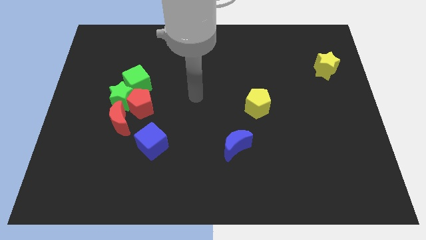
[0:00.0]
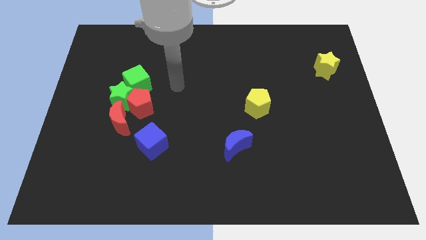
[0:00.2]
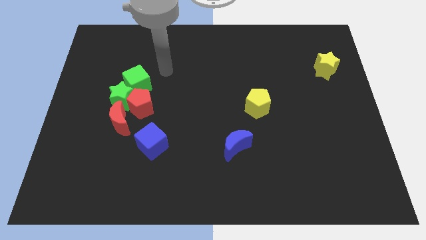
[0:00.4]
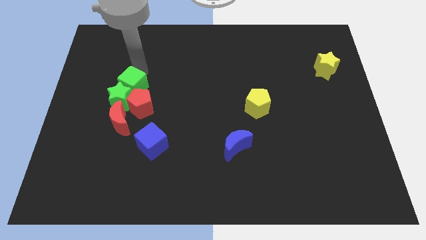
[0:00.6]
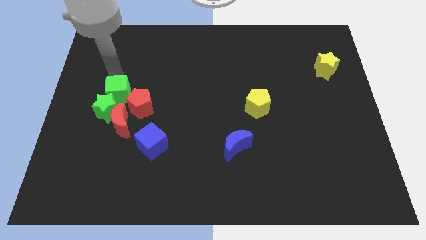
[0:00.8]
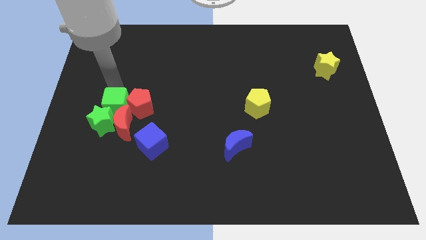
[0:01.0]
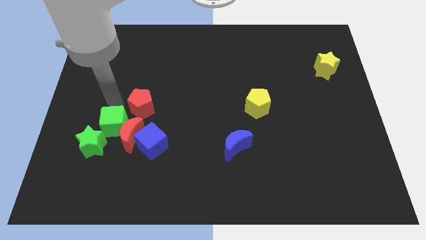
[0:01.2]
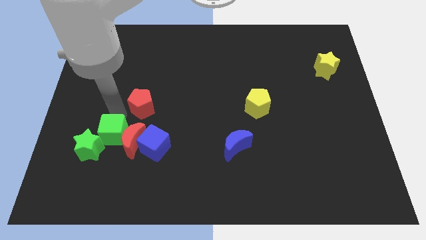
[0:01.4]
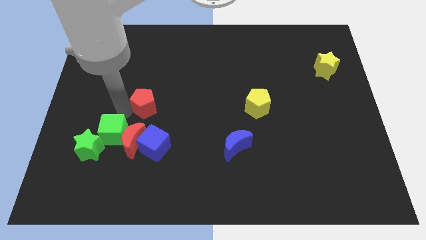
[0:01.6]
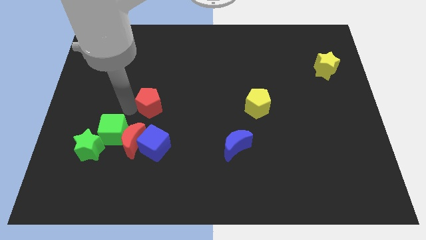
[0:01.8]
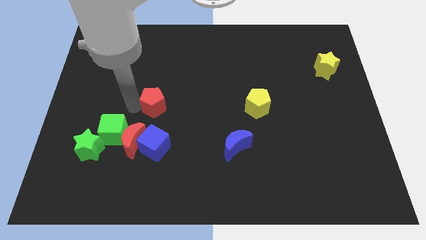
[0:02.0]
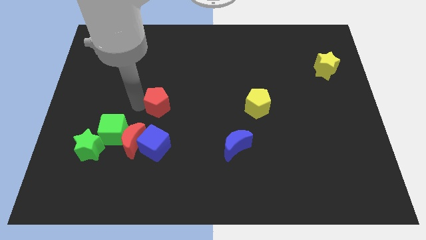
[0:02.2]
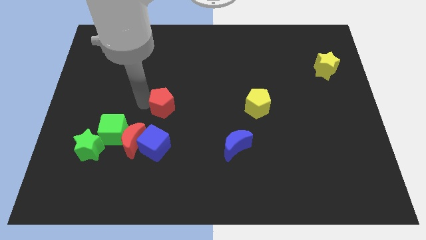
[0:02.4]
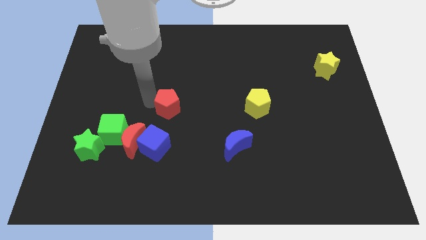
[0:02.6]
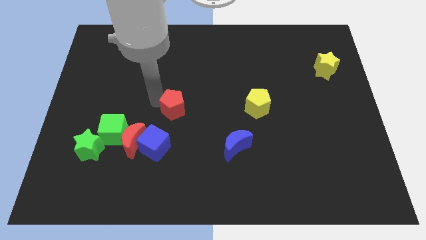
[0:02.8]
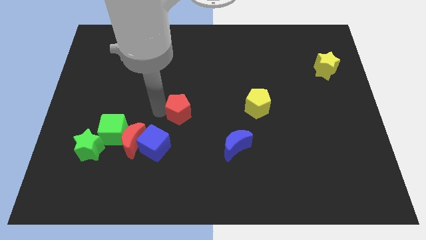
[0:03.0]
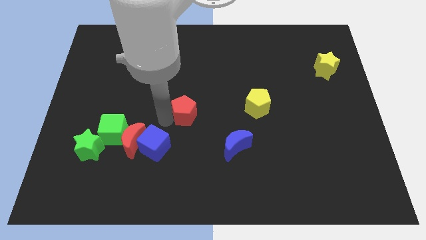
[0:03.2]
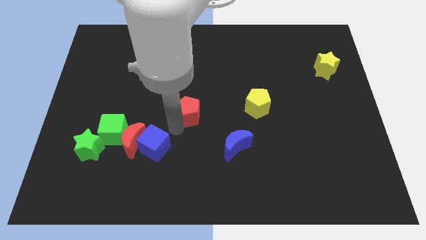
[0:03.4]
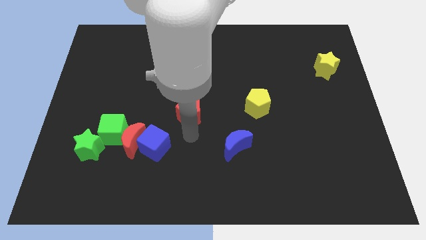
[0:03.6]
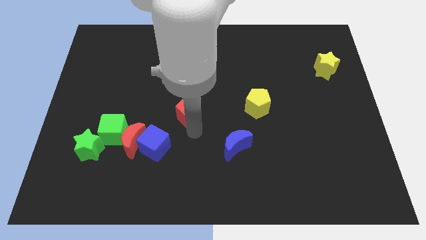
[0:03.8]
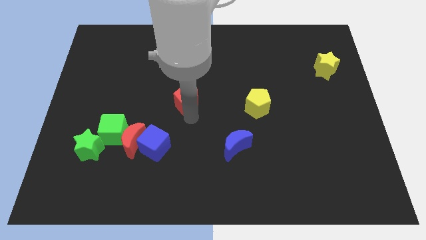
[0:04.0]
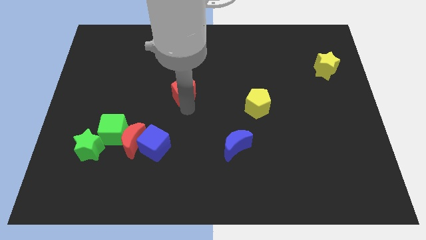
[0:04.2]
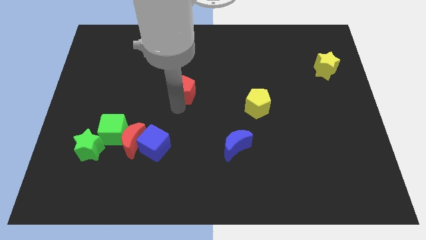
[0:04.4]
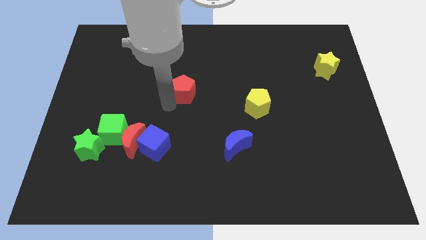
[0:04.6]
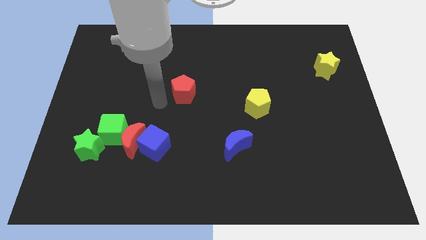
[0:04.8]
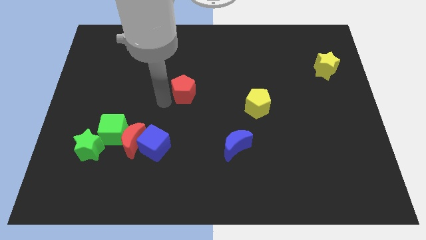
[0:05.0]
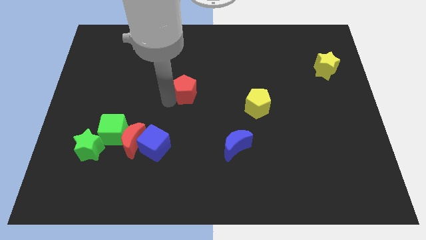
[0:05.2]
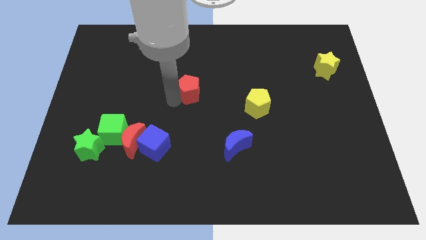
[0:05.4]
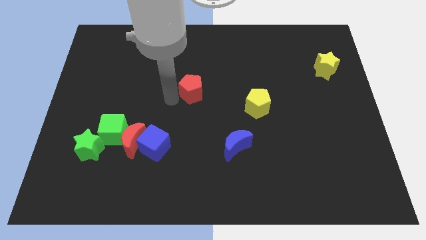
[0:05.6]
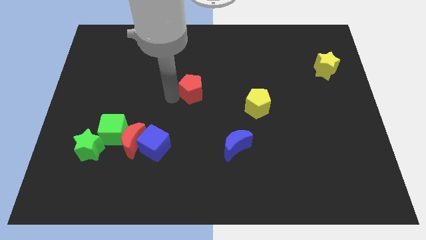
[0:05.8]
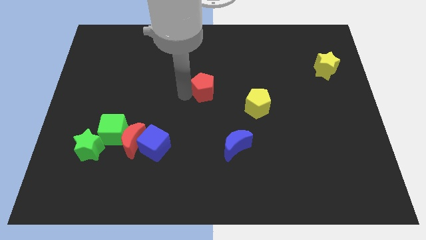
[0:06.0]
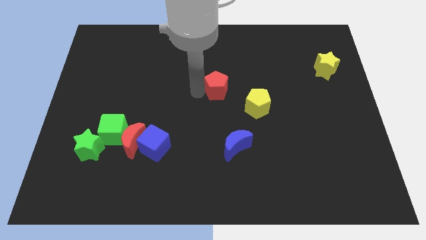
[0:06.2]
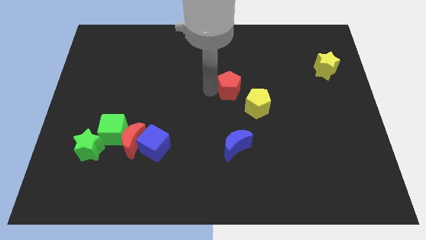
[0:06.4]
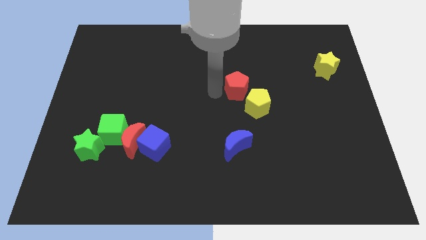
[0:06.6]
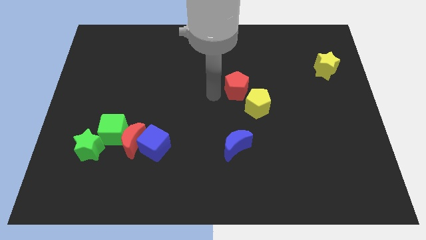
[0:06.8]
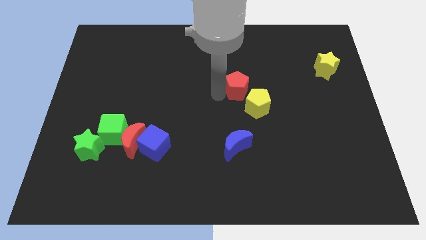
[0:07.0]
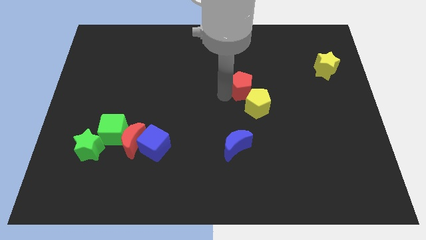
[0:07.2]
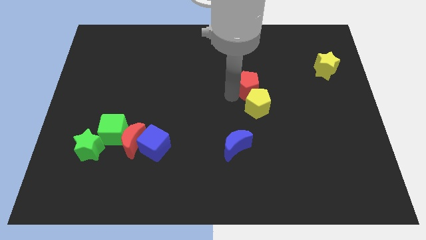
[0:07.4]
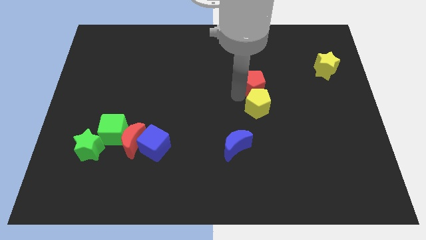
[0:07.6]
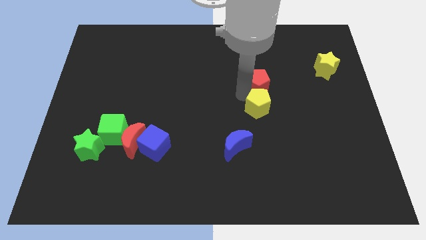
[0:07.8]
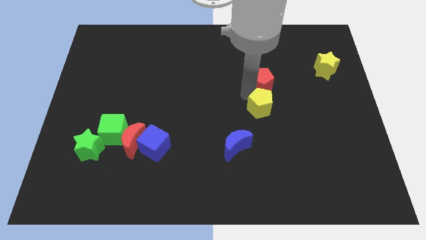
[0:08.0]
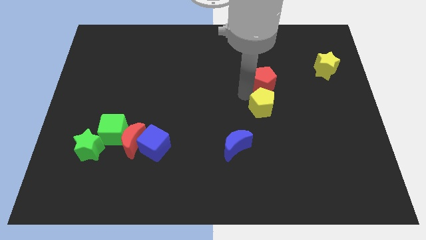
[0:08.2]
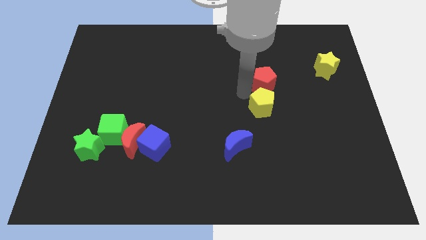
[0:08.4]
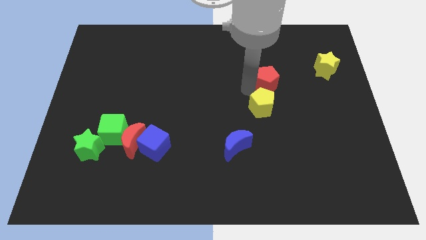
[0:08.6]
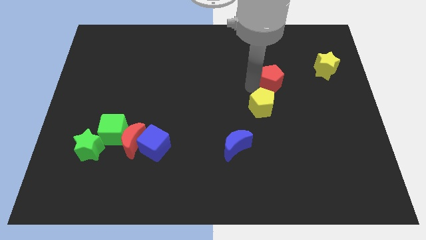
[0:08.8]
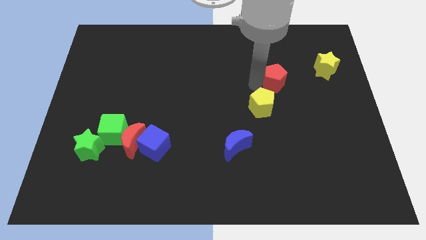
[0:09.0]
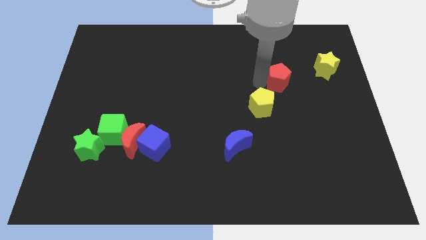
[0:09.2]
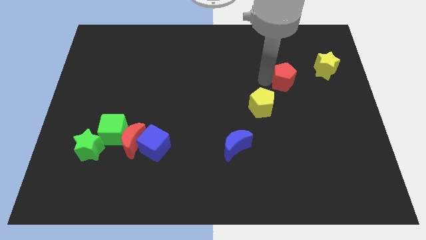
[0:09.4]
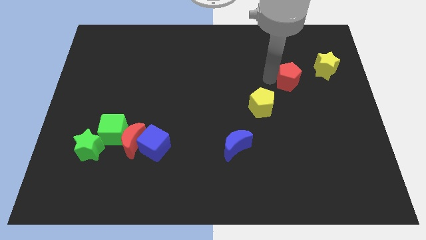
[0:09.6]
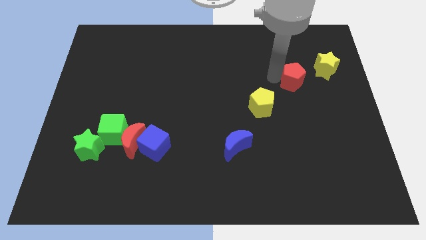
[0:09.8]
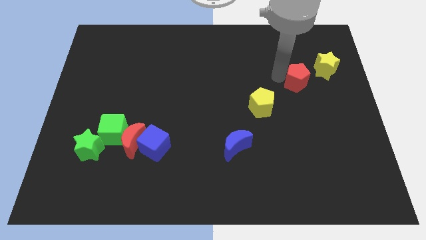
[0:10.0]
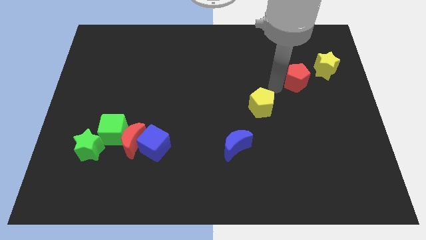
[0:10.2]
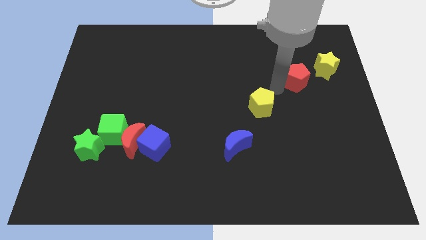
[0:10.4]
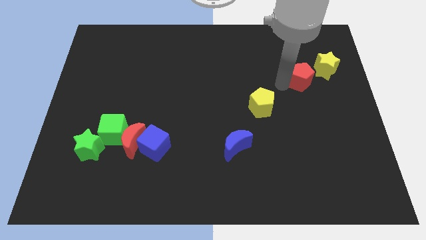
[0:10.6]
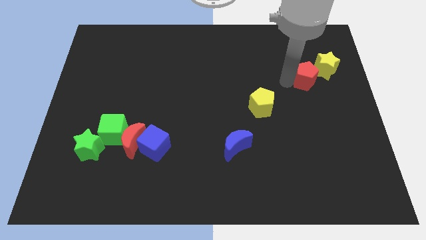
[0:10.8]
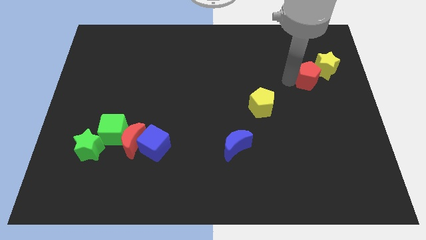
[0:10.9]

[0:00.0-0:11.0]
push the red pentagon to the yellow star

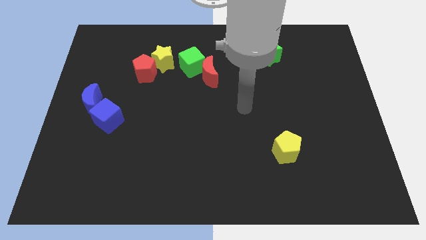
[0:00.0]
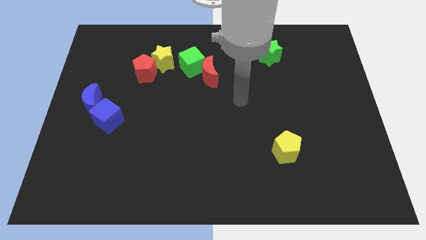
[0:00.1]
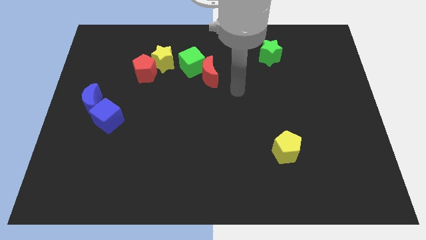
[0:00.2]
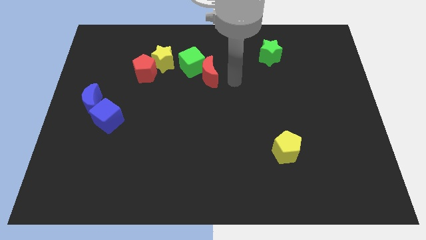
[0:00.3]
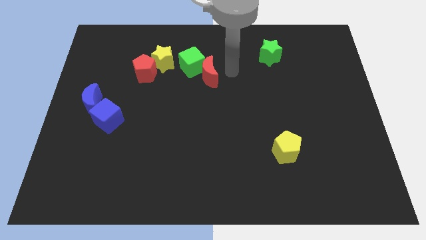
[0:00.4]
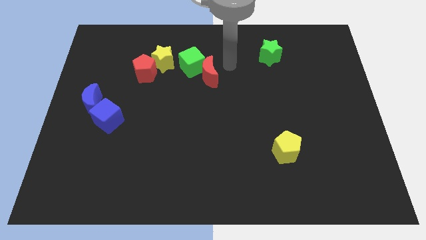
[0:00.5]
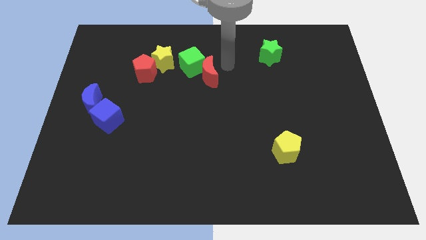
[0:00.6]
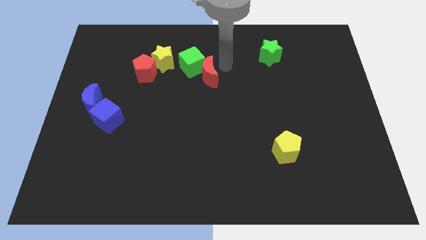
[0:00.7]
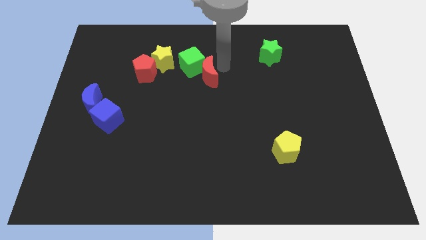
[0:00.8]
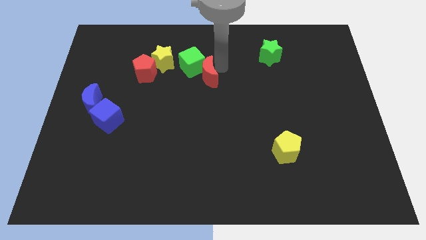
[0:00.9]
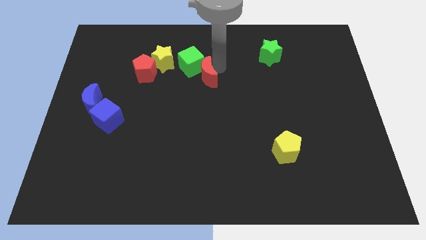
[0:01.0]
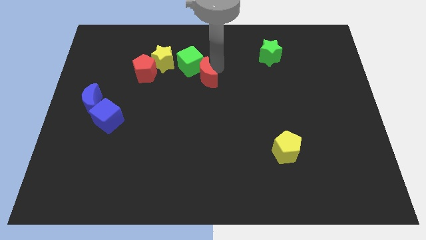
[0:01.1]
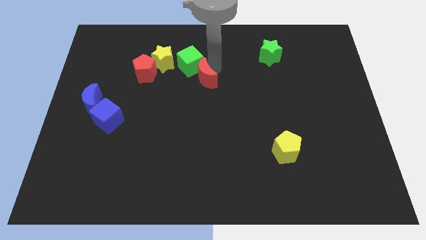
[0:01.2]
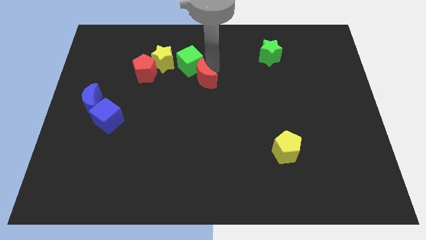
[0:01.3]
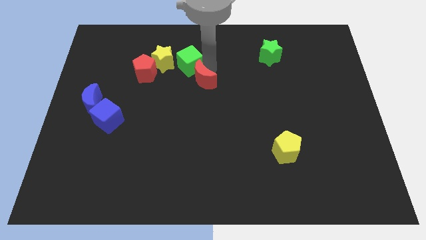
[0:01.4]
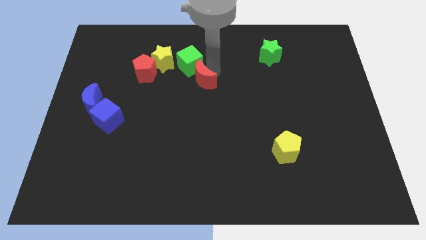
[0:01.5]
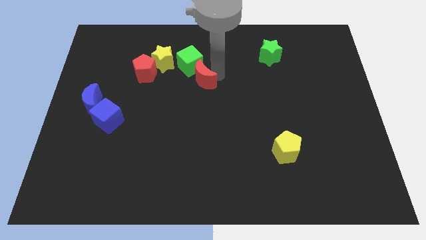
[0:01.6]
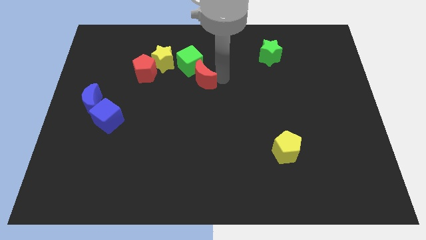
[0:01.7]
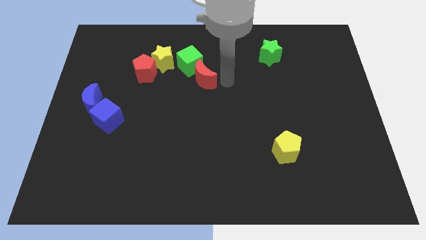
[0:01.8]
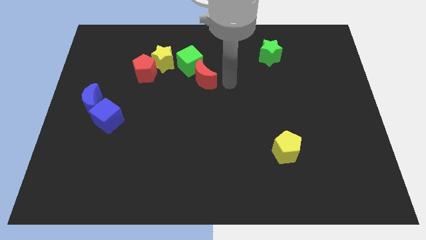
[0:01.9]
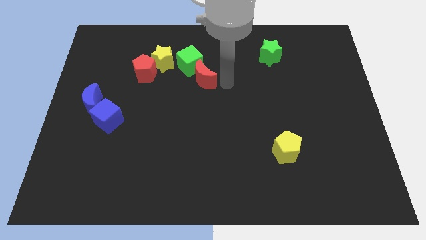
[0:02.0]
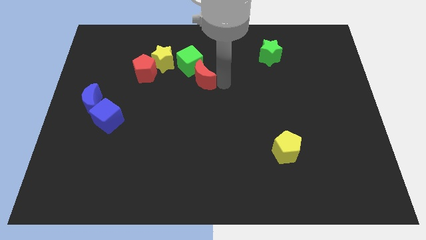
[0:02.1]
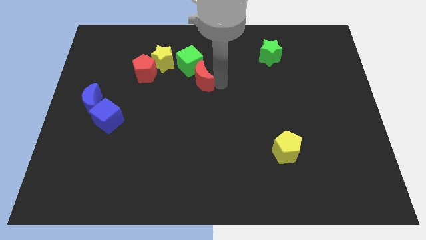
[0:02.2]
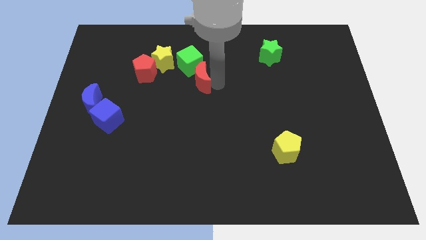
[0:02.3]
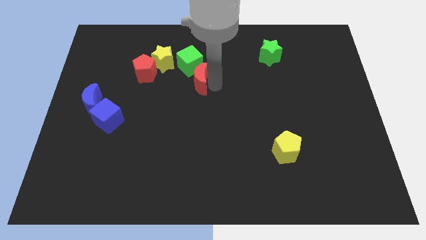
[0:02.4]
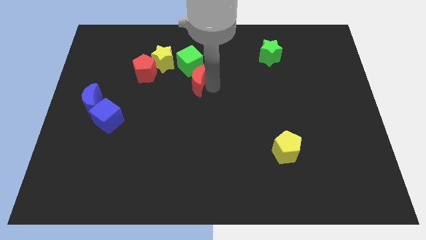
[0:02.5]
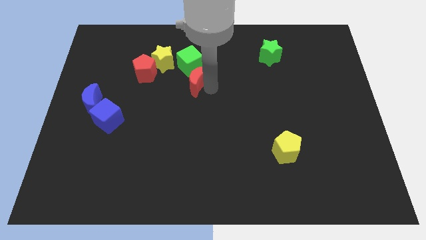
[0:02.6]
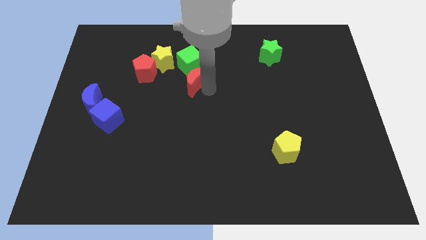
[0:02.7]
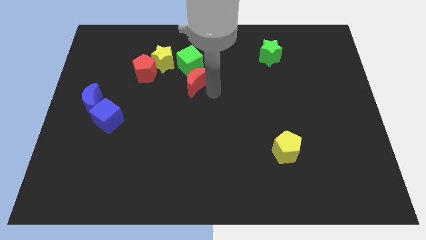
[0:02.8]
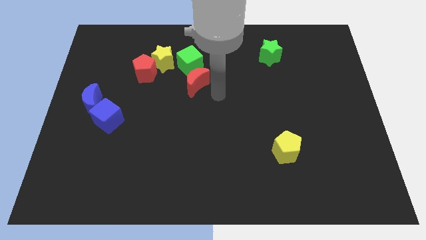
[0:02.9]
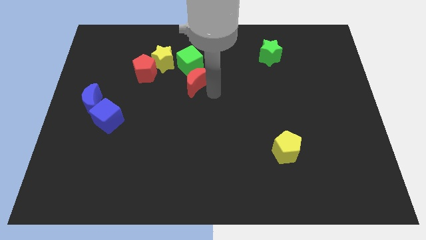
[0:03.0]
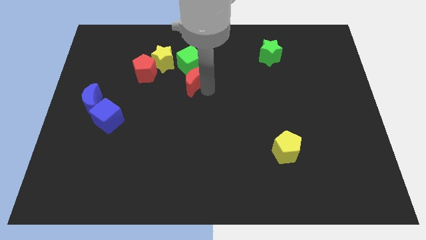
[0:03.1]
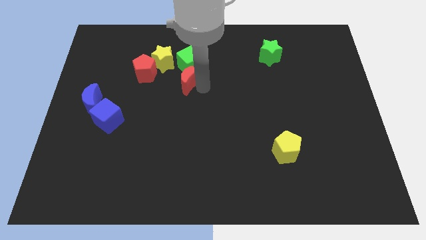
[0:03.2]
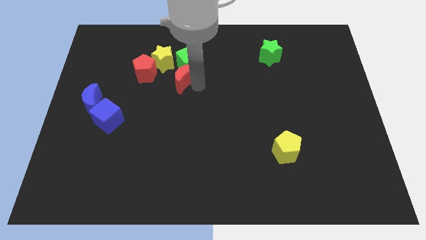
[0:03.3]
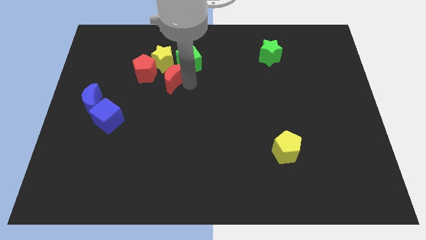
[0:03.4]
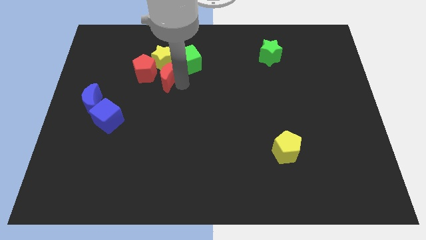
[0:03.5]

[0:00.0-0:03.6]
slide the red moon towards the yellow star
